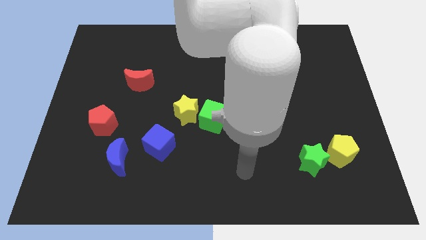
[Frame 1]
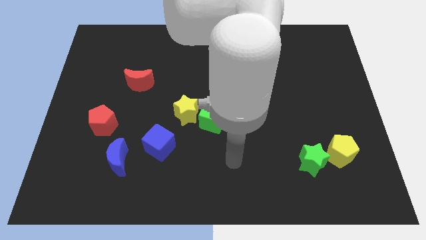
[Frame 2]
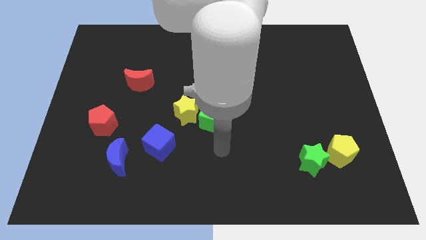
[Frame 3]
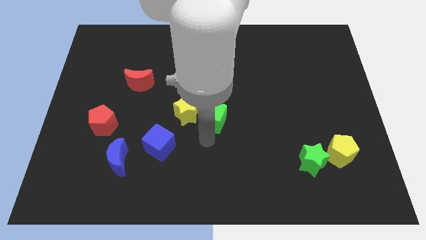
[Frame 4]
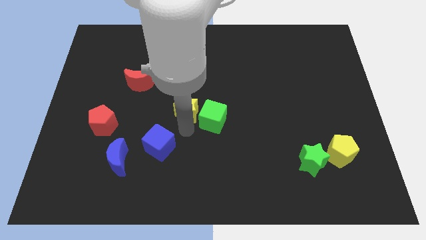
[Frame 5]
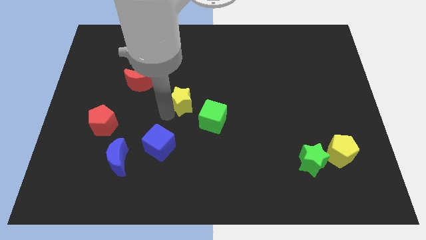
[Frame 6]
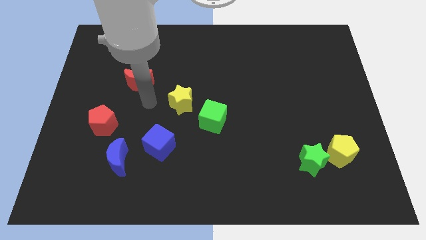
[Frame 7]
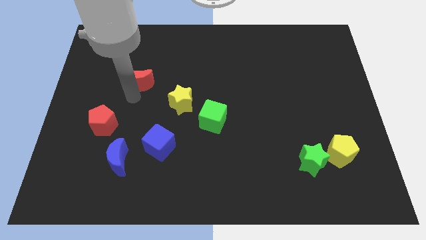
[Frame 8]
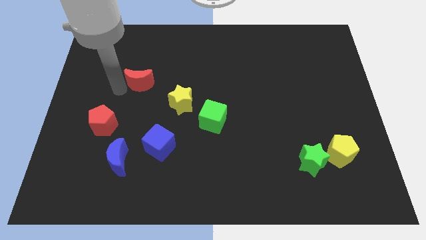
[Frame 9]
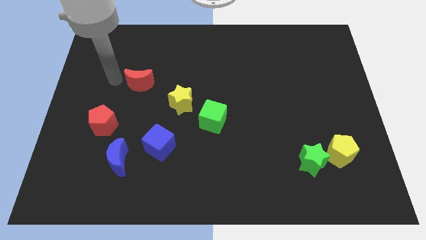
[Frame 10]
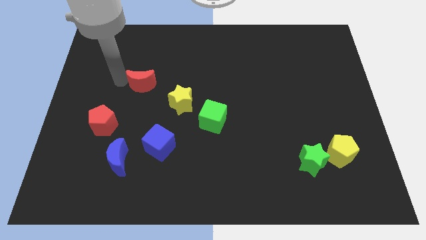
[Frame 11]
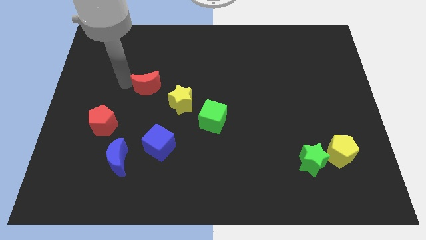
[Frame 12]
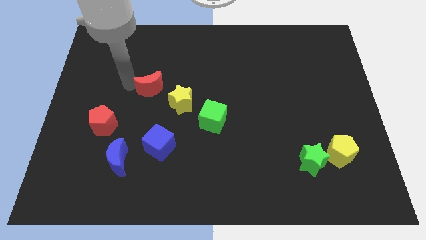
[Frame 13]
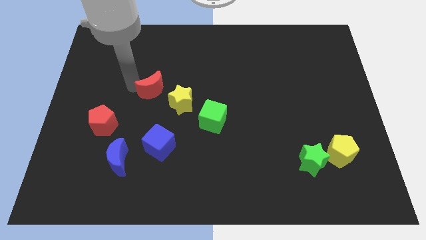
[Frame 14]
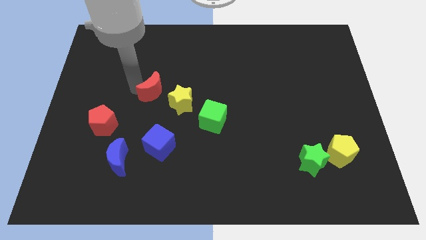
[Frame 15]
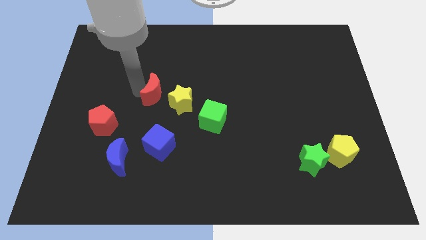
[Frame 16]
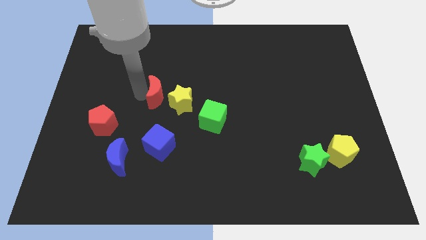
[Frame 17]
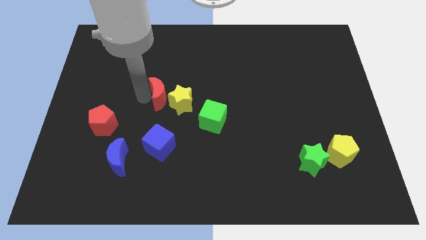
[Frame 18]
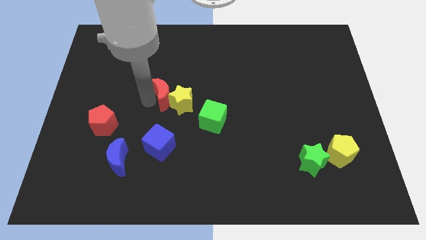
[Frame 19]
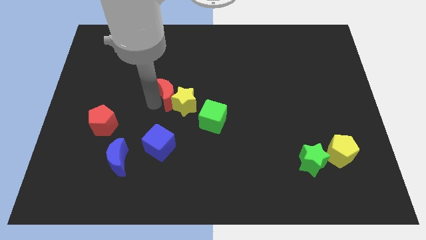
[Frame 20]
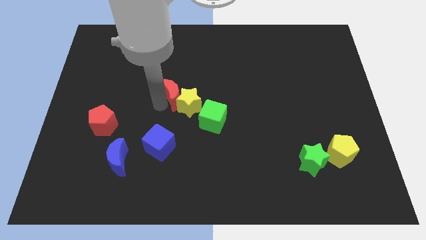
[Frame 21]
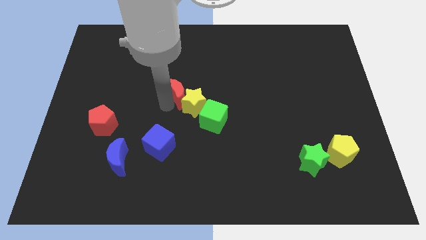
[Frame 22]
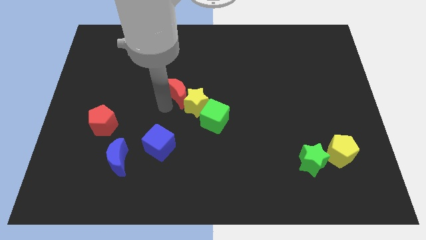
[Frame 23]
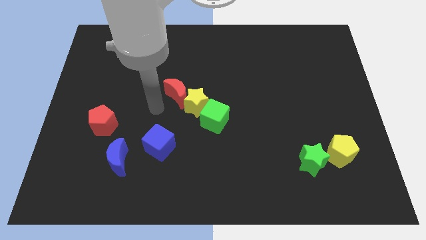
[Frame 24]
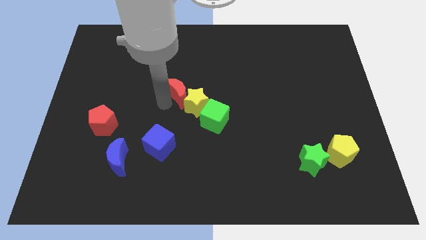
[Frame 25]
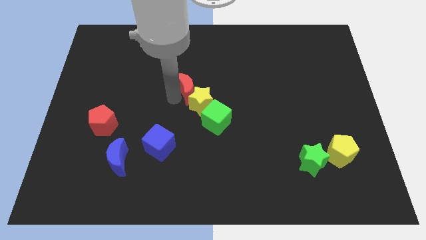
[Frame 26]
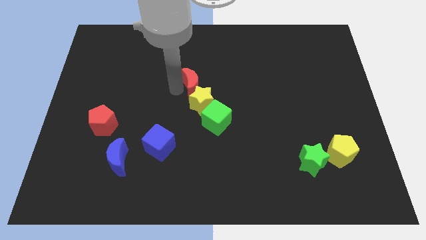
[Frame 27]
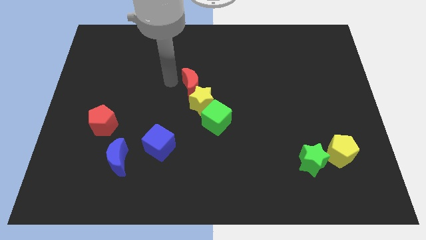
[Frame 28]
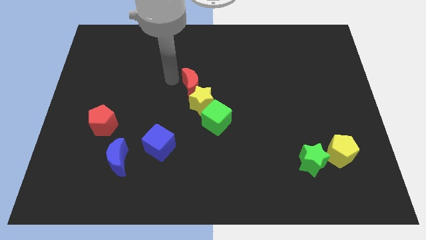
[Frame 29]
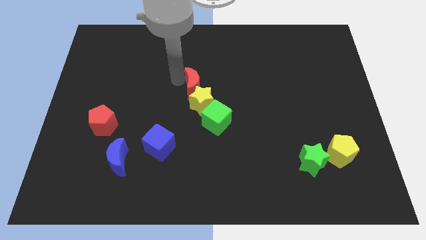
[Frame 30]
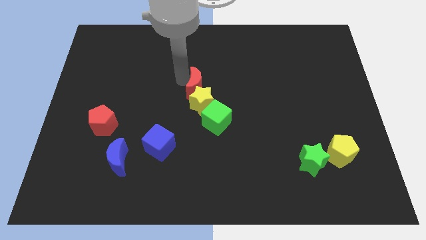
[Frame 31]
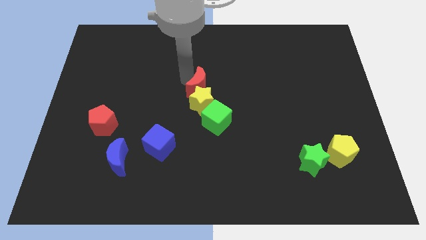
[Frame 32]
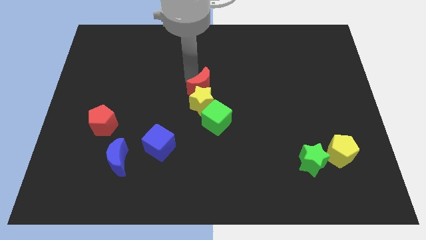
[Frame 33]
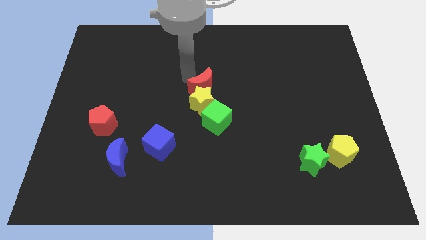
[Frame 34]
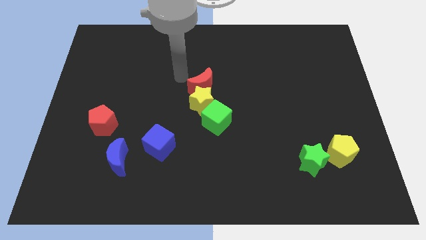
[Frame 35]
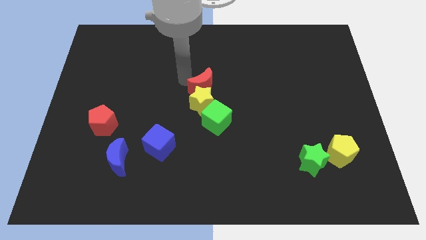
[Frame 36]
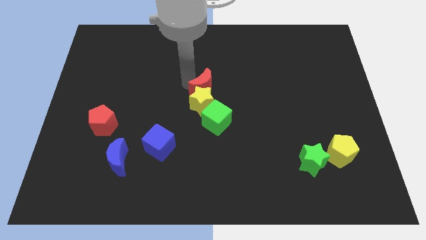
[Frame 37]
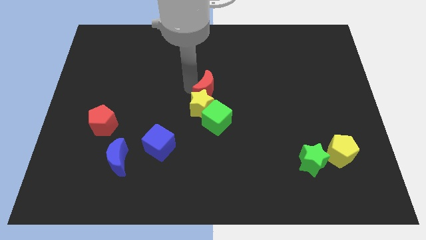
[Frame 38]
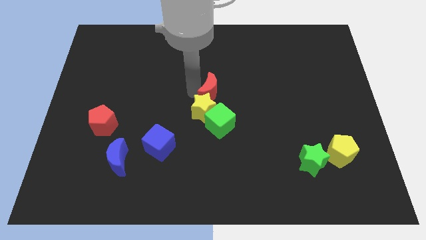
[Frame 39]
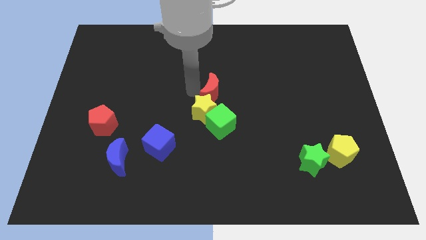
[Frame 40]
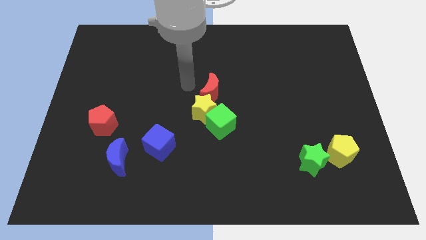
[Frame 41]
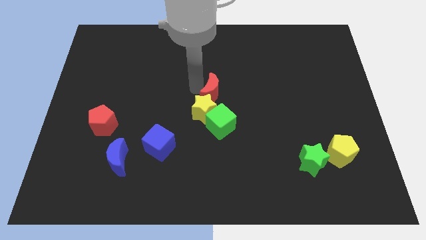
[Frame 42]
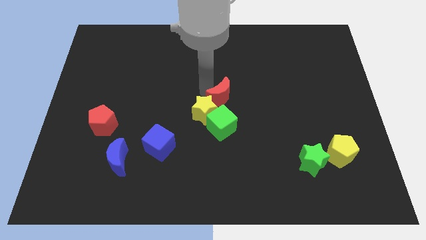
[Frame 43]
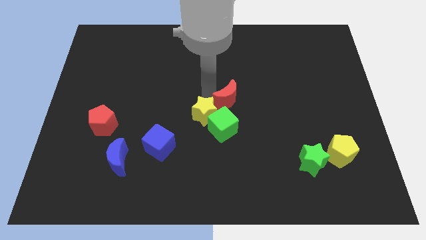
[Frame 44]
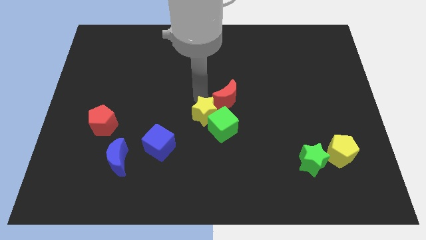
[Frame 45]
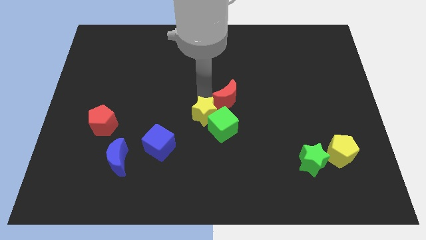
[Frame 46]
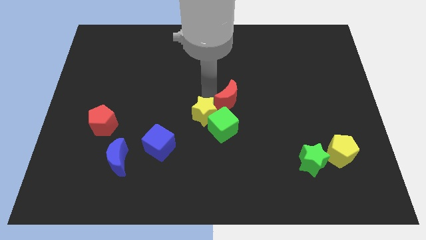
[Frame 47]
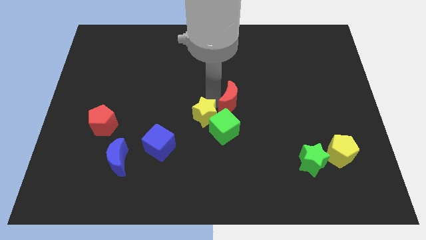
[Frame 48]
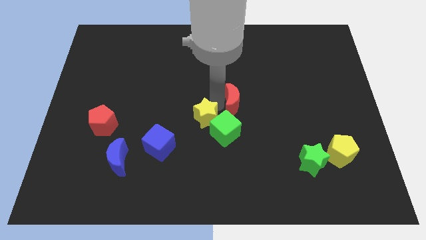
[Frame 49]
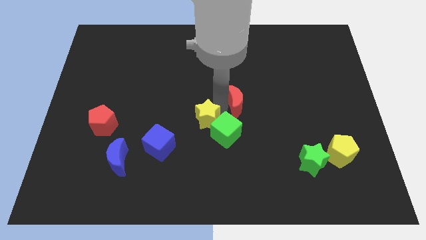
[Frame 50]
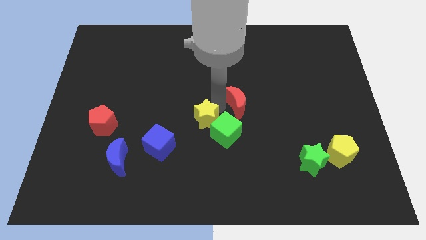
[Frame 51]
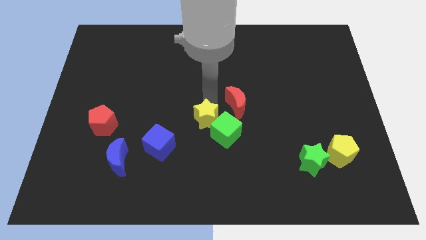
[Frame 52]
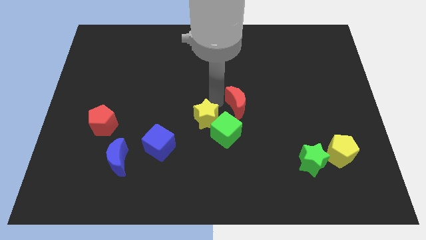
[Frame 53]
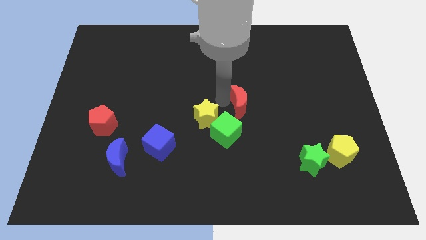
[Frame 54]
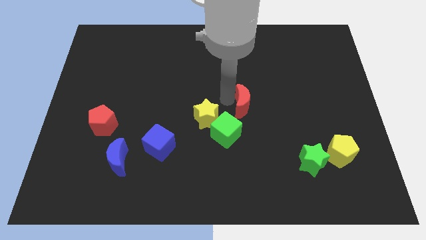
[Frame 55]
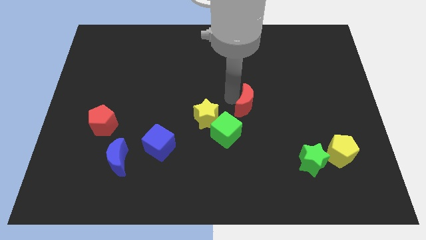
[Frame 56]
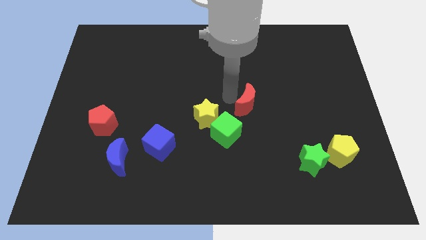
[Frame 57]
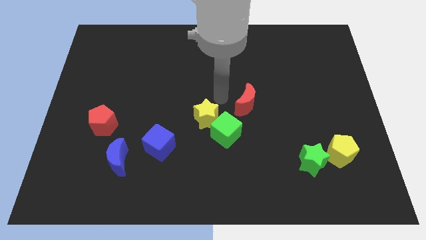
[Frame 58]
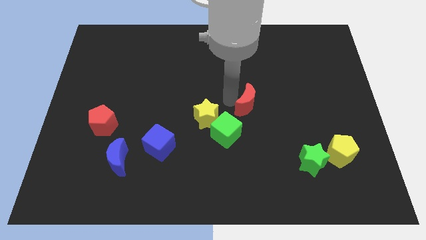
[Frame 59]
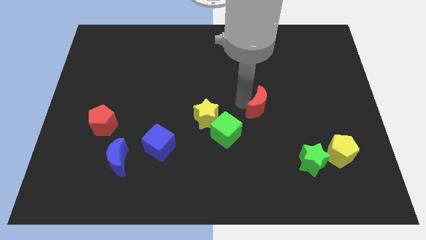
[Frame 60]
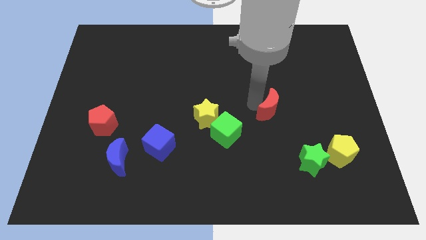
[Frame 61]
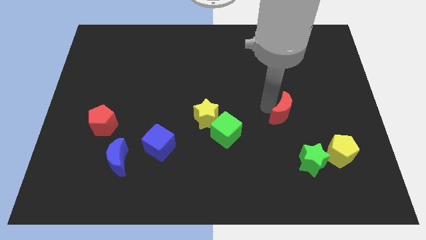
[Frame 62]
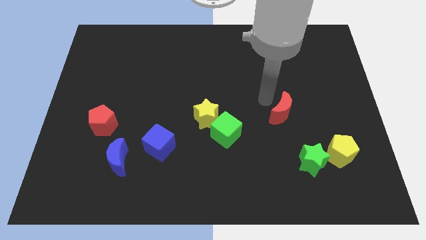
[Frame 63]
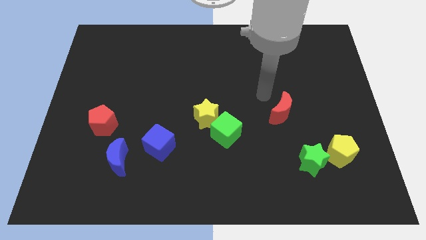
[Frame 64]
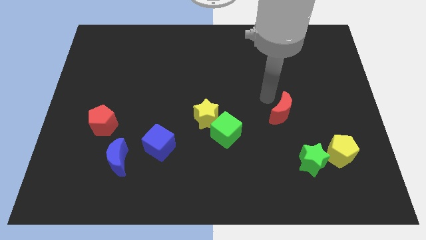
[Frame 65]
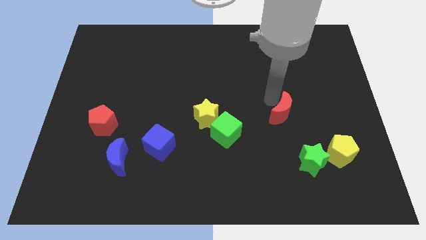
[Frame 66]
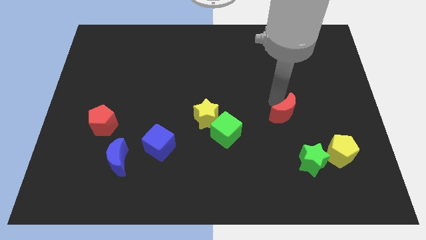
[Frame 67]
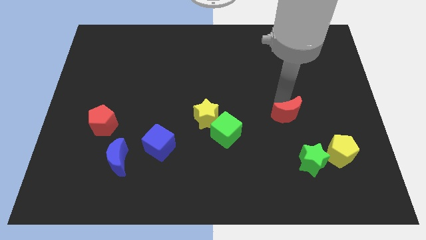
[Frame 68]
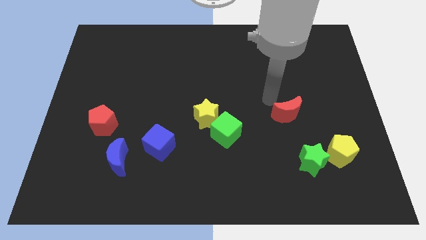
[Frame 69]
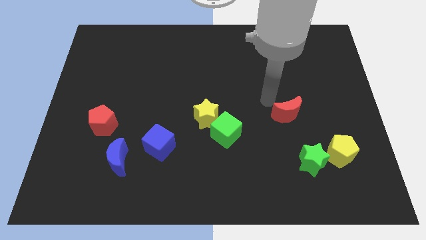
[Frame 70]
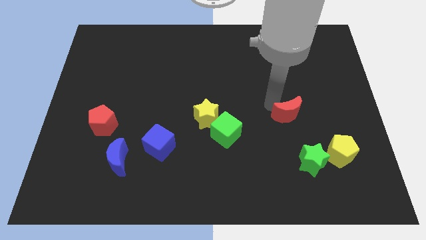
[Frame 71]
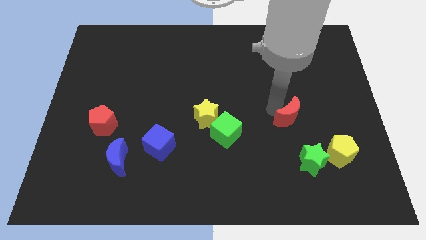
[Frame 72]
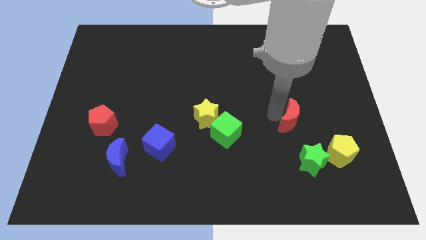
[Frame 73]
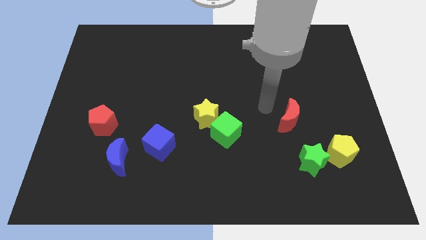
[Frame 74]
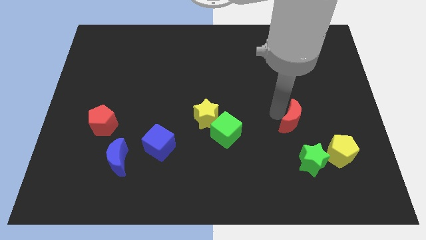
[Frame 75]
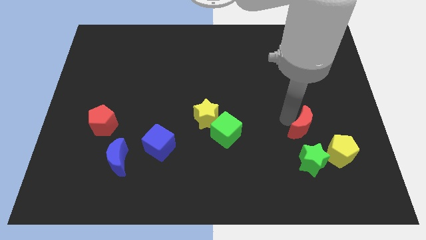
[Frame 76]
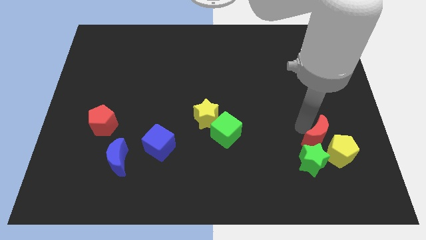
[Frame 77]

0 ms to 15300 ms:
put the red moon towards the yellow pentagon
